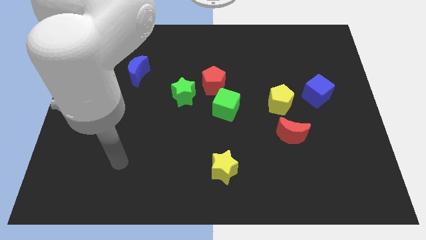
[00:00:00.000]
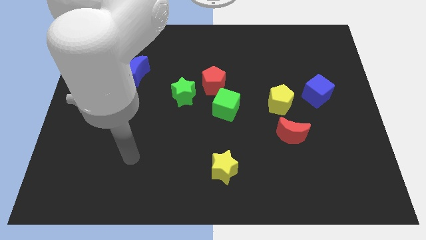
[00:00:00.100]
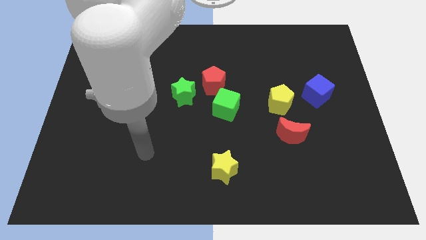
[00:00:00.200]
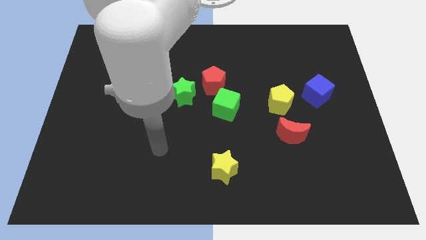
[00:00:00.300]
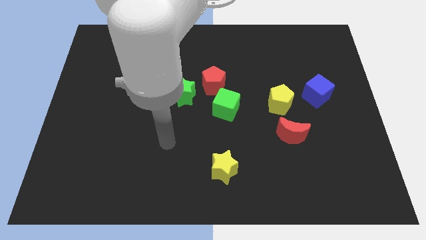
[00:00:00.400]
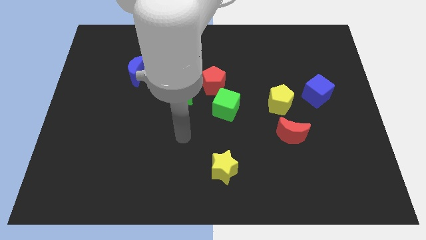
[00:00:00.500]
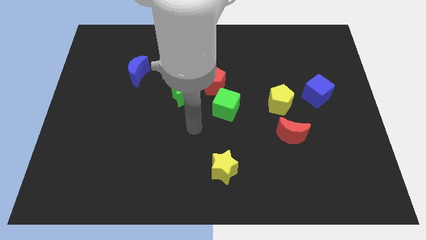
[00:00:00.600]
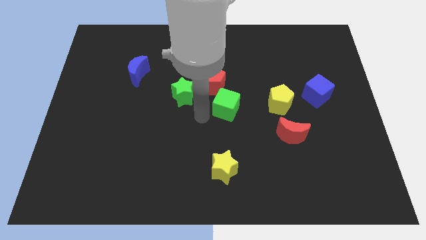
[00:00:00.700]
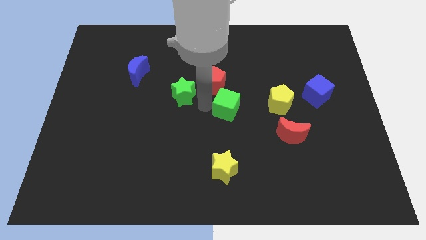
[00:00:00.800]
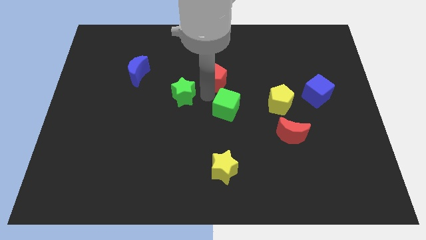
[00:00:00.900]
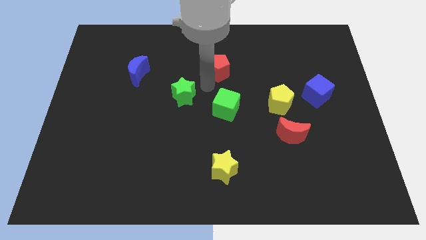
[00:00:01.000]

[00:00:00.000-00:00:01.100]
pull the green star apart from the red pentagon

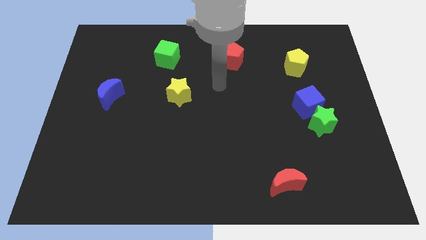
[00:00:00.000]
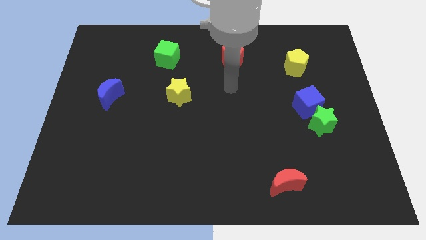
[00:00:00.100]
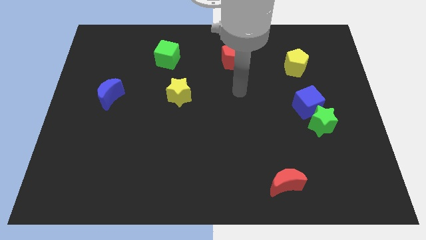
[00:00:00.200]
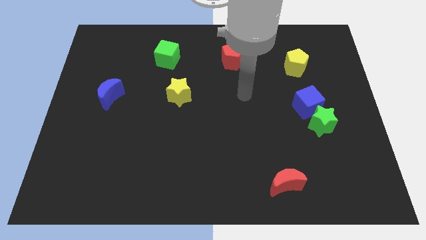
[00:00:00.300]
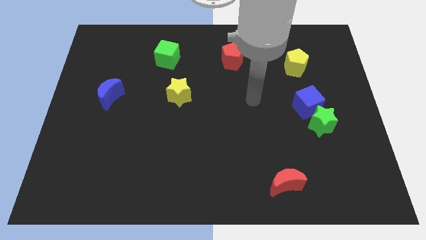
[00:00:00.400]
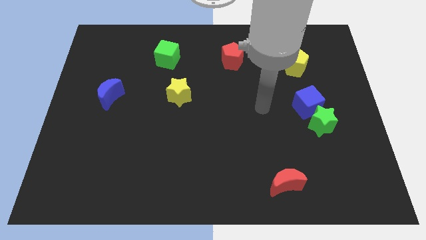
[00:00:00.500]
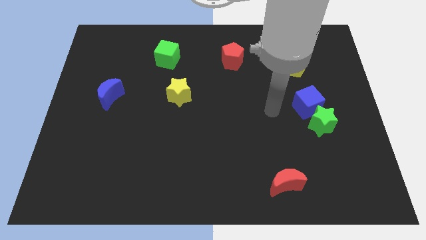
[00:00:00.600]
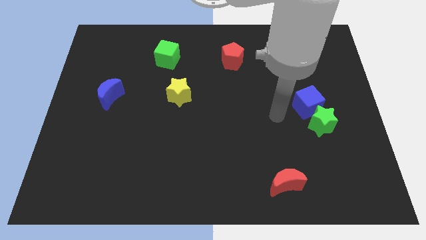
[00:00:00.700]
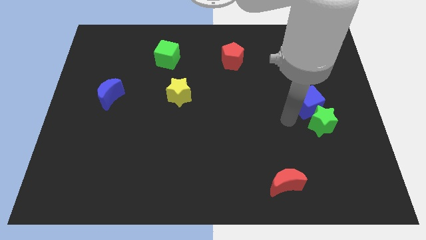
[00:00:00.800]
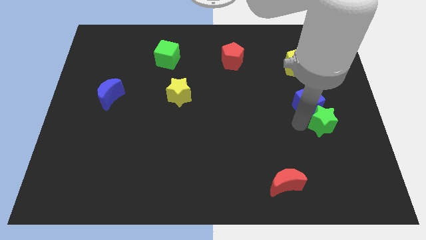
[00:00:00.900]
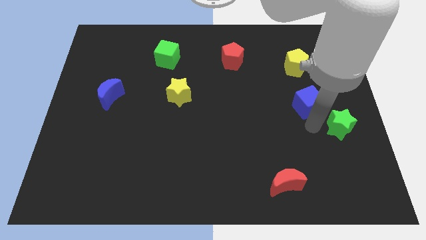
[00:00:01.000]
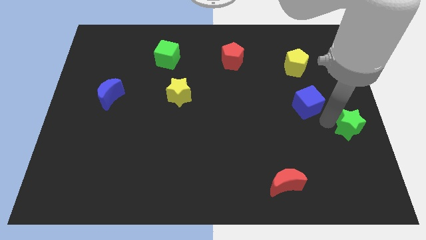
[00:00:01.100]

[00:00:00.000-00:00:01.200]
separate the blue cube from the green star

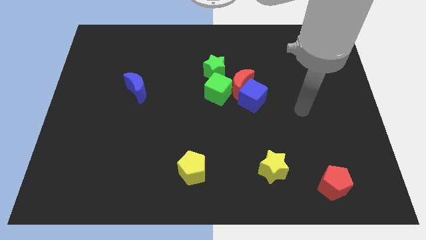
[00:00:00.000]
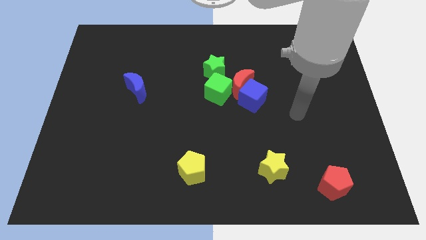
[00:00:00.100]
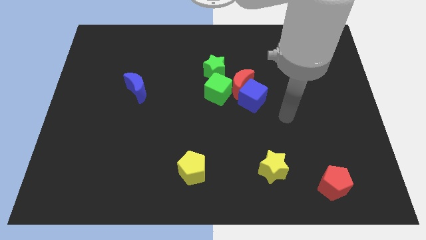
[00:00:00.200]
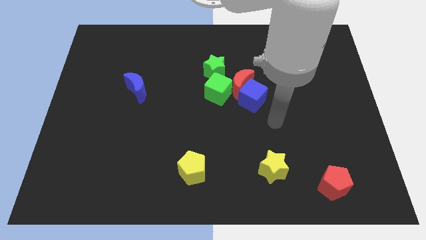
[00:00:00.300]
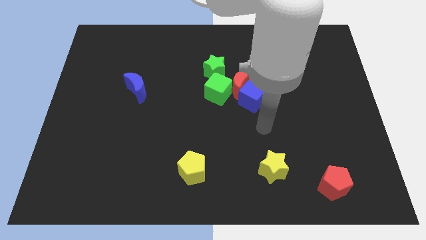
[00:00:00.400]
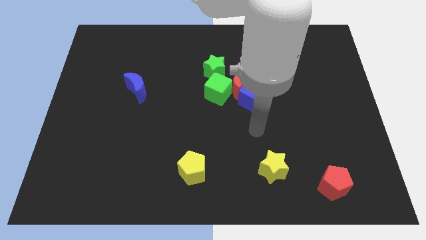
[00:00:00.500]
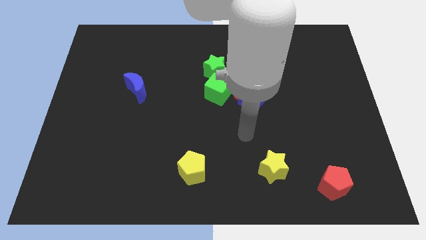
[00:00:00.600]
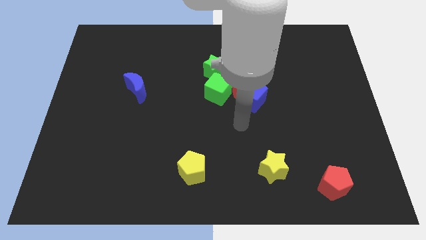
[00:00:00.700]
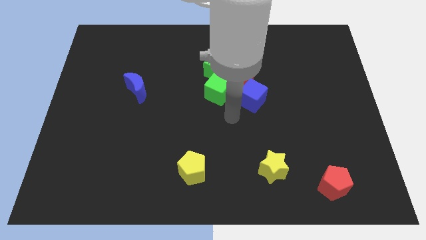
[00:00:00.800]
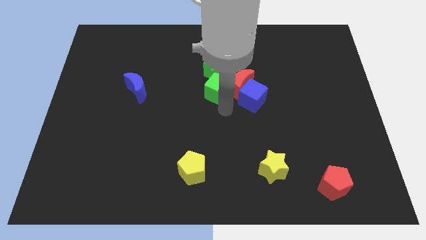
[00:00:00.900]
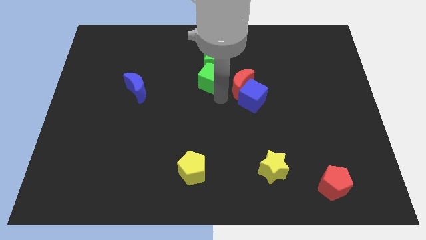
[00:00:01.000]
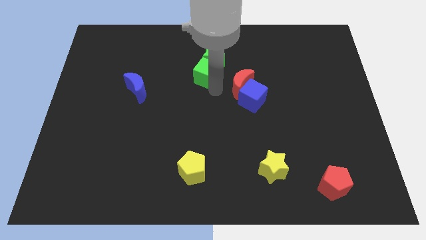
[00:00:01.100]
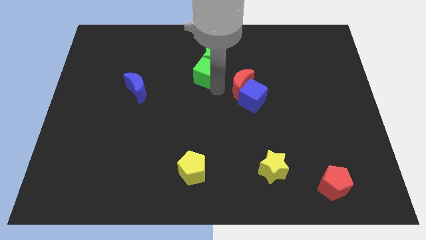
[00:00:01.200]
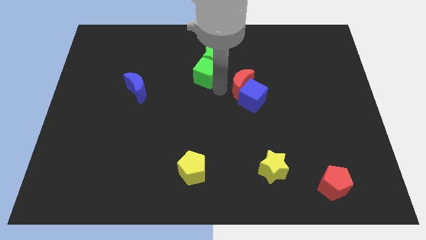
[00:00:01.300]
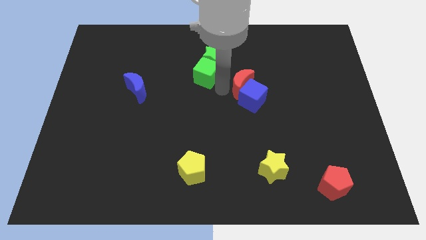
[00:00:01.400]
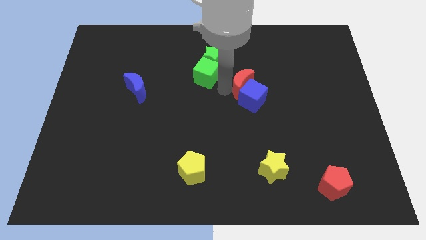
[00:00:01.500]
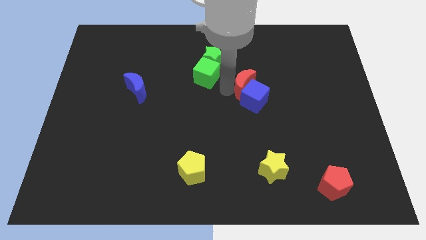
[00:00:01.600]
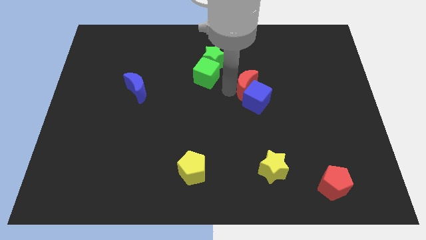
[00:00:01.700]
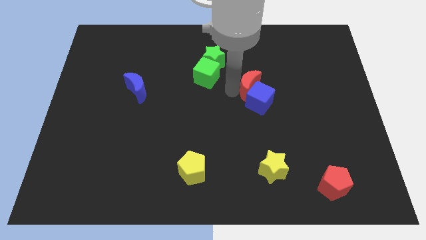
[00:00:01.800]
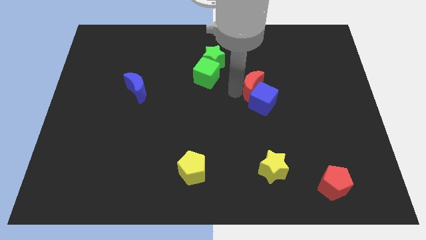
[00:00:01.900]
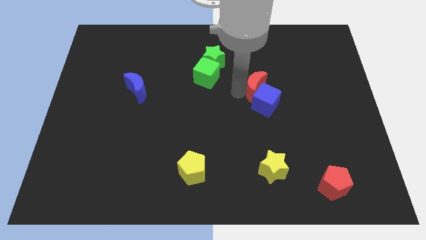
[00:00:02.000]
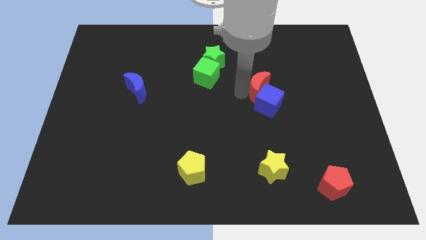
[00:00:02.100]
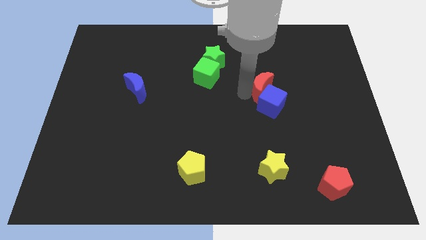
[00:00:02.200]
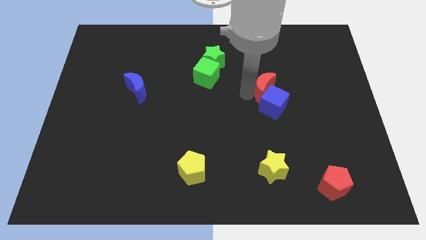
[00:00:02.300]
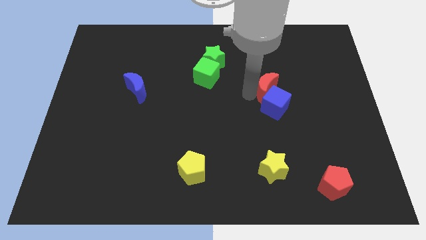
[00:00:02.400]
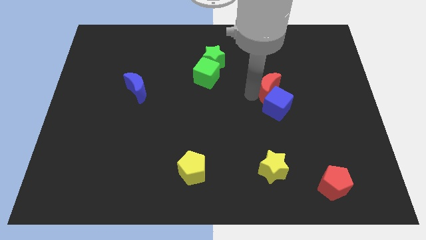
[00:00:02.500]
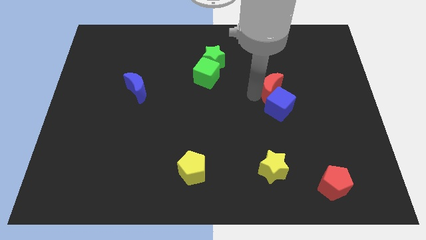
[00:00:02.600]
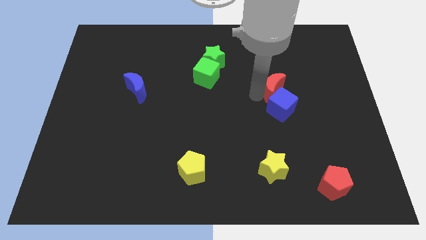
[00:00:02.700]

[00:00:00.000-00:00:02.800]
pull the red moon apart from the blue cube, green cube, and green star

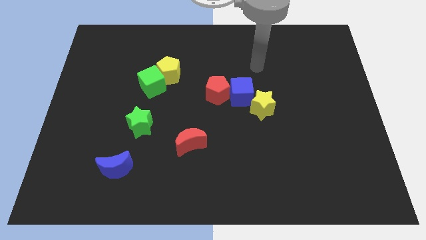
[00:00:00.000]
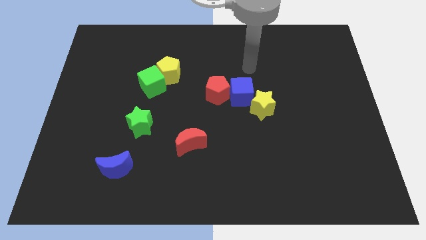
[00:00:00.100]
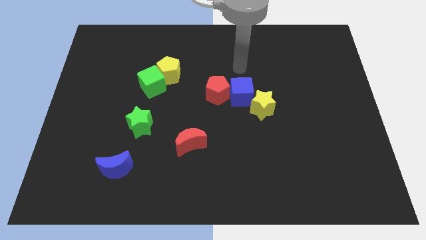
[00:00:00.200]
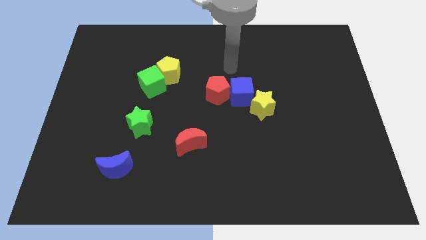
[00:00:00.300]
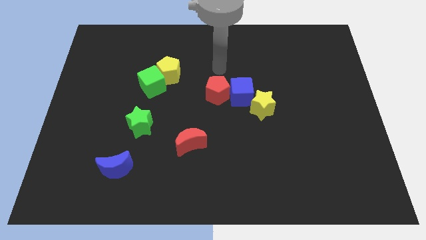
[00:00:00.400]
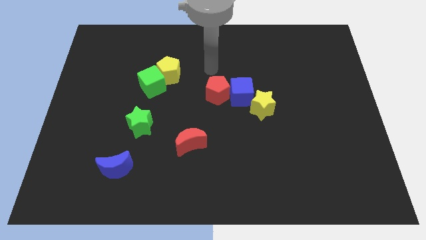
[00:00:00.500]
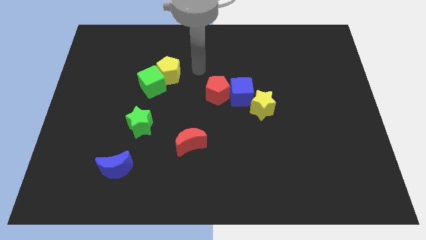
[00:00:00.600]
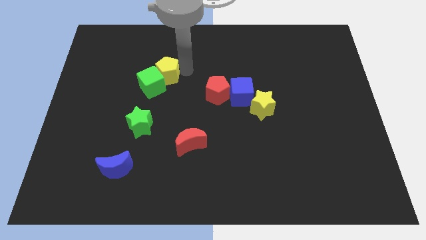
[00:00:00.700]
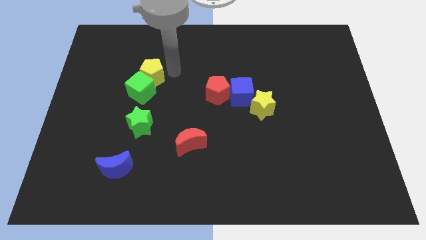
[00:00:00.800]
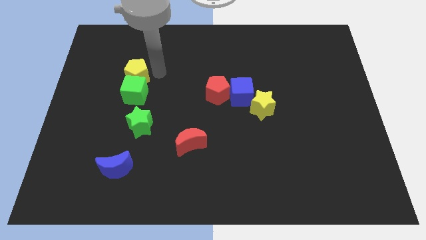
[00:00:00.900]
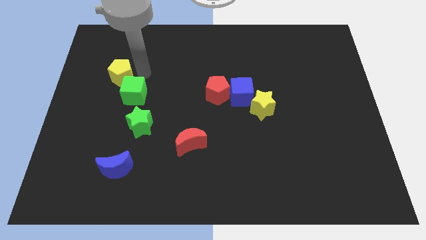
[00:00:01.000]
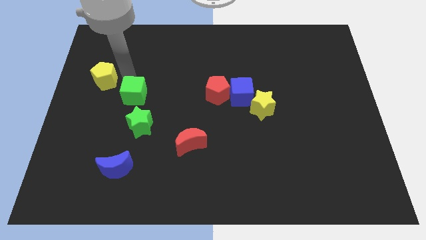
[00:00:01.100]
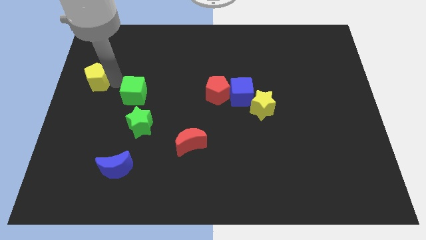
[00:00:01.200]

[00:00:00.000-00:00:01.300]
separate the green cube from the yellow pentagon

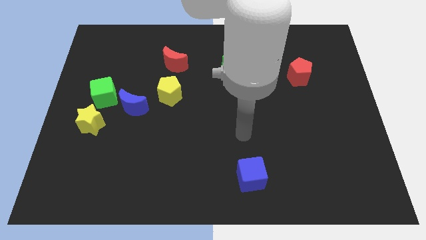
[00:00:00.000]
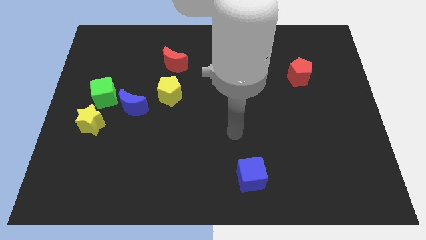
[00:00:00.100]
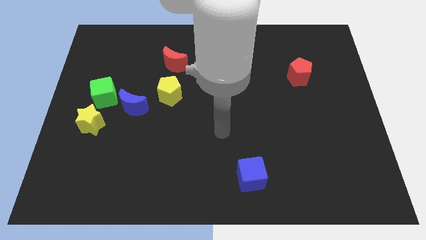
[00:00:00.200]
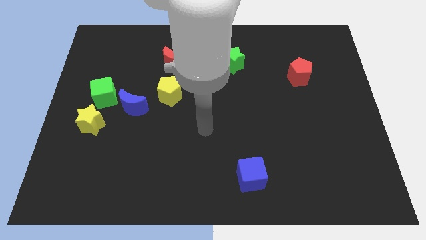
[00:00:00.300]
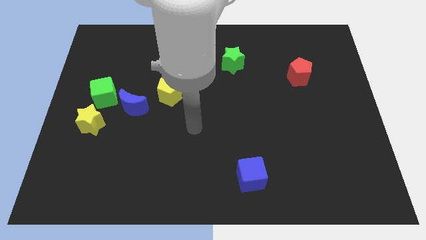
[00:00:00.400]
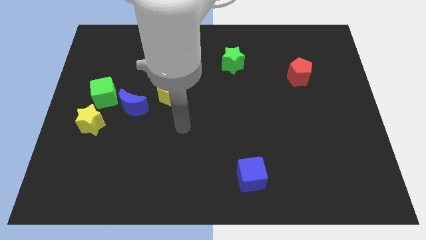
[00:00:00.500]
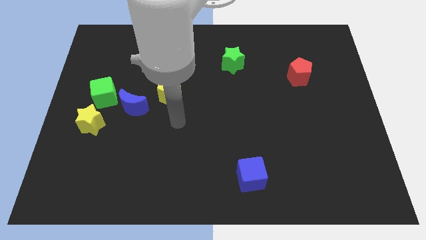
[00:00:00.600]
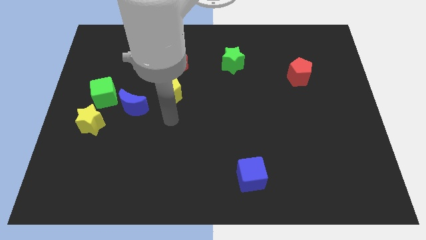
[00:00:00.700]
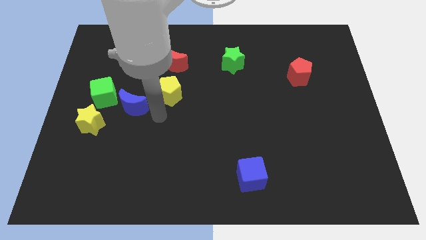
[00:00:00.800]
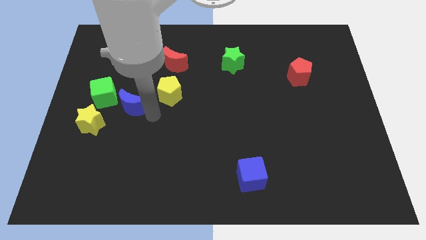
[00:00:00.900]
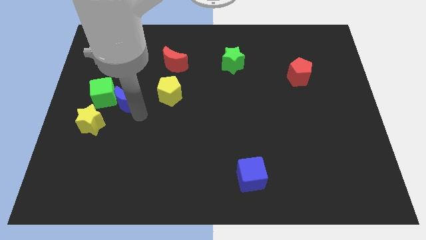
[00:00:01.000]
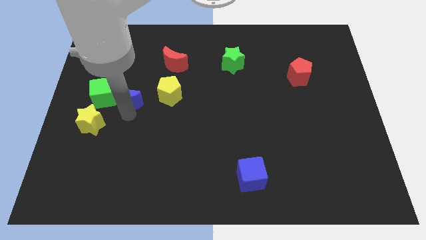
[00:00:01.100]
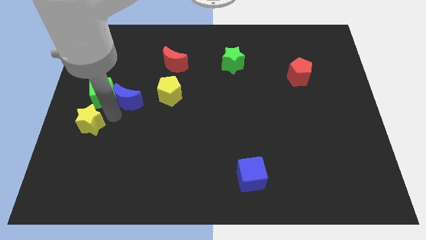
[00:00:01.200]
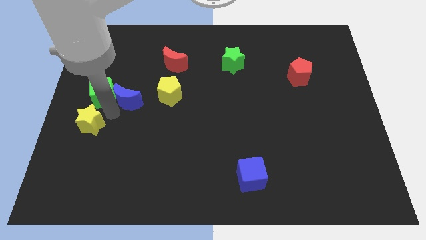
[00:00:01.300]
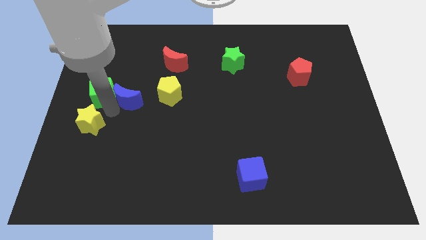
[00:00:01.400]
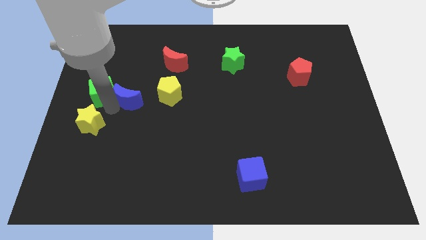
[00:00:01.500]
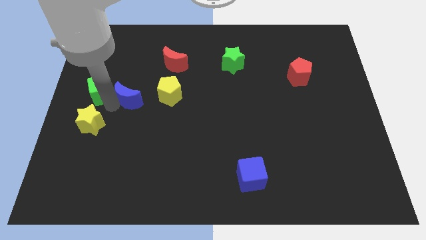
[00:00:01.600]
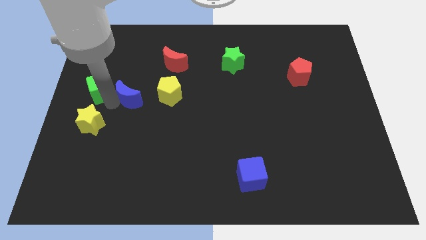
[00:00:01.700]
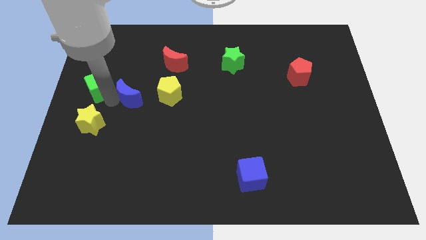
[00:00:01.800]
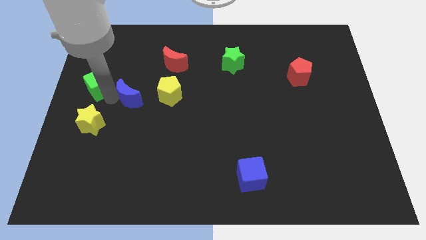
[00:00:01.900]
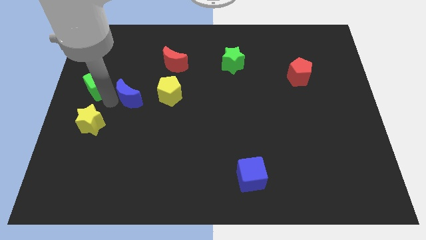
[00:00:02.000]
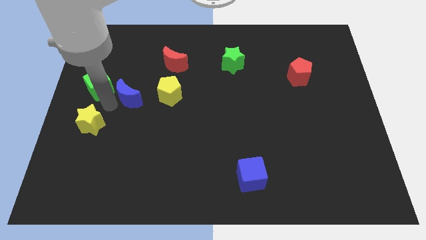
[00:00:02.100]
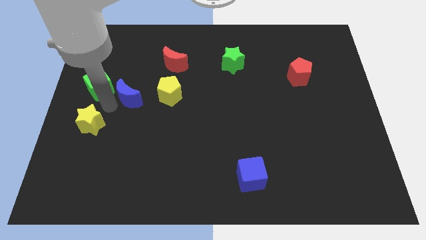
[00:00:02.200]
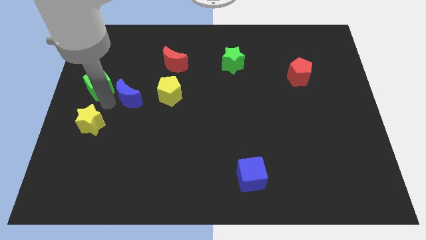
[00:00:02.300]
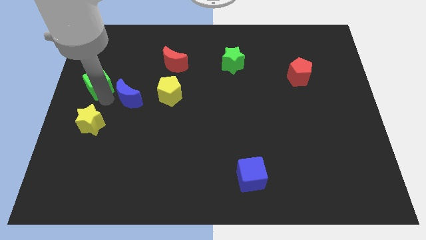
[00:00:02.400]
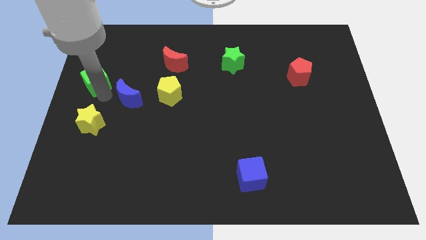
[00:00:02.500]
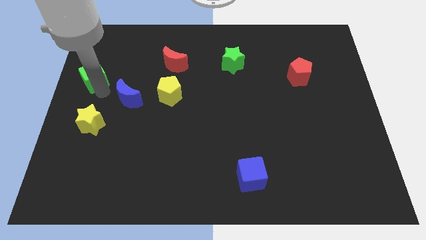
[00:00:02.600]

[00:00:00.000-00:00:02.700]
move the green cube away from the blue moon and yellow star

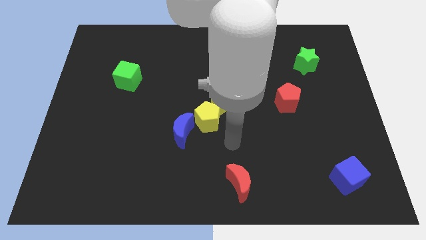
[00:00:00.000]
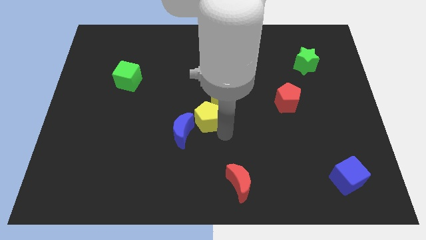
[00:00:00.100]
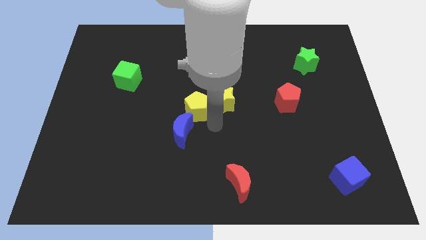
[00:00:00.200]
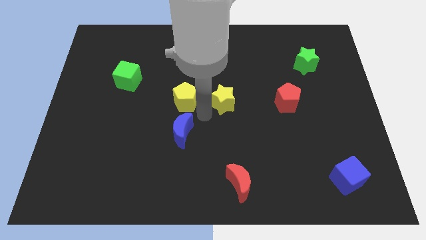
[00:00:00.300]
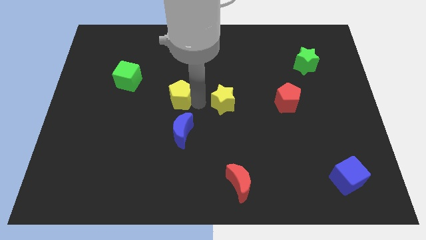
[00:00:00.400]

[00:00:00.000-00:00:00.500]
pull the yellow star apart from the yellow pentagon
